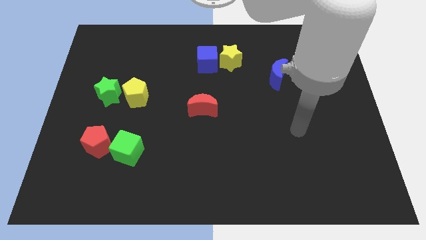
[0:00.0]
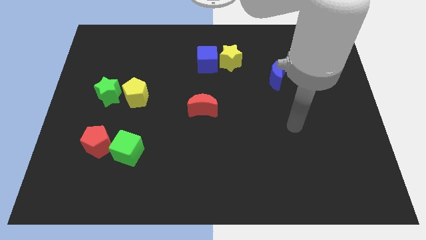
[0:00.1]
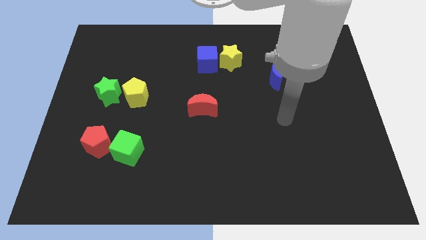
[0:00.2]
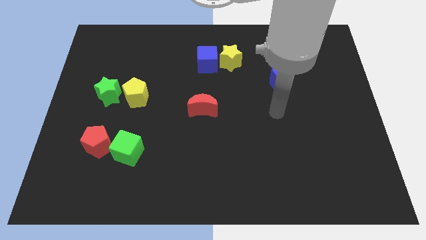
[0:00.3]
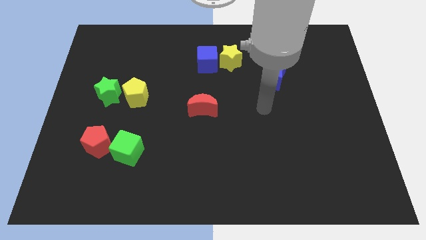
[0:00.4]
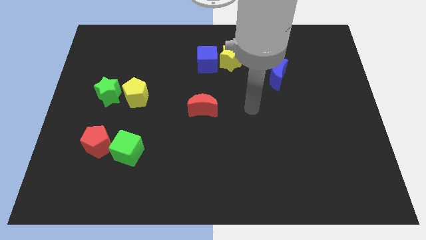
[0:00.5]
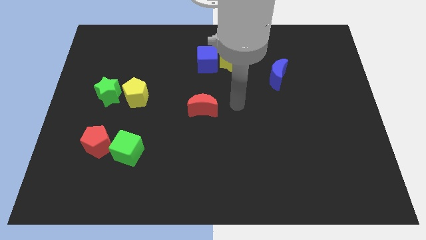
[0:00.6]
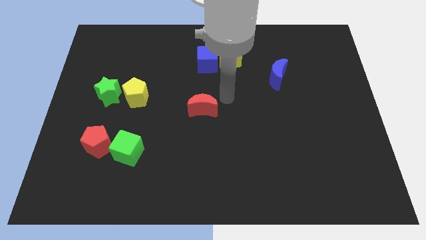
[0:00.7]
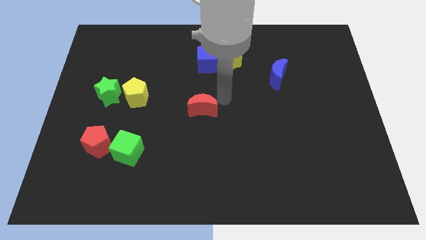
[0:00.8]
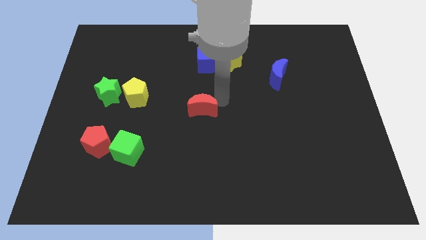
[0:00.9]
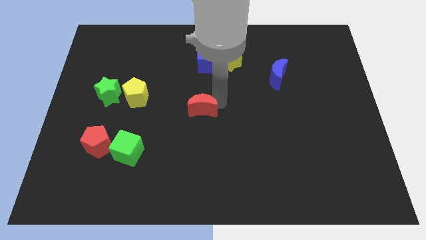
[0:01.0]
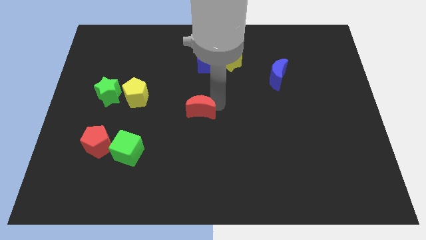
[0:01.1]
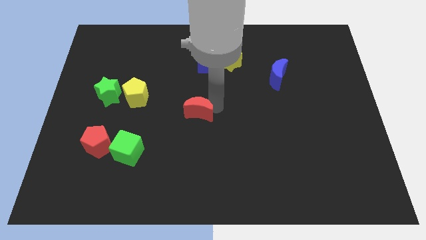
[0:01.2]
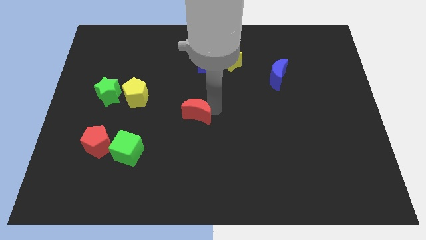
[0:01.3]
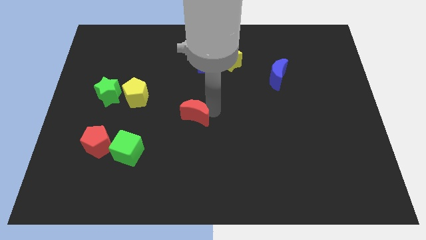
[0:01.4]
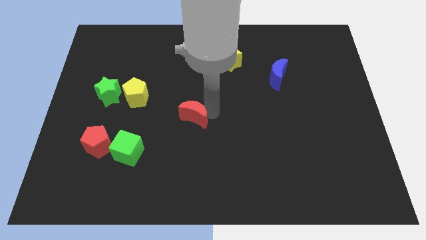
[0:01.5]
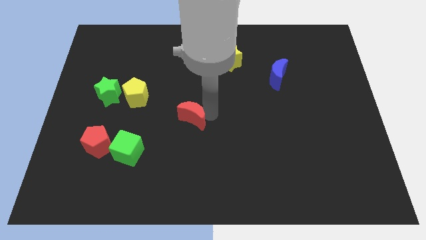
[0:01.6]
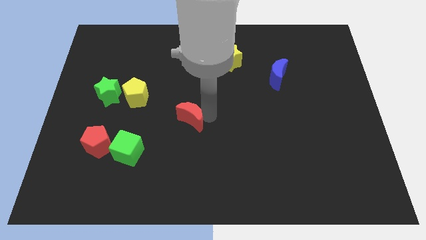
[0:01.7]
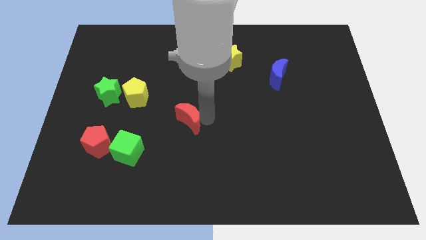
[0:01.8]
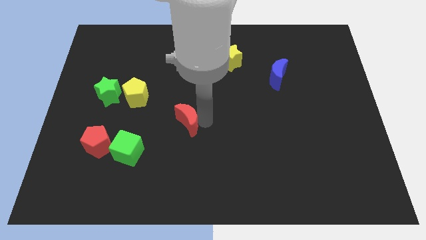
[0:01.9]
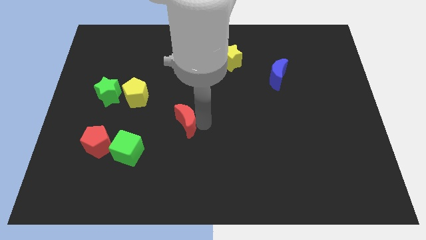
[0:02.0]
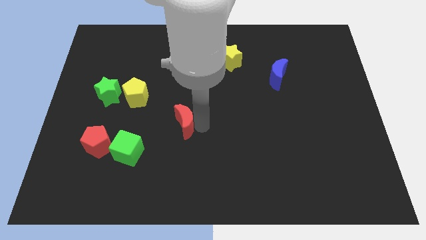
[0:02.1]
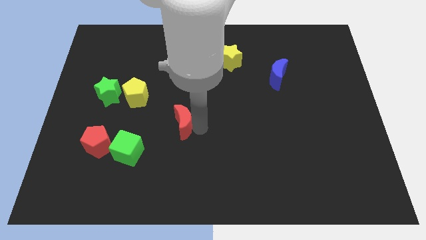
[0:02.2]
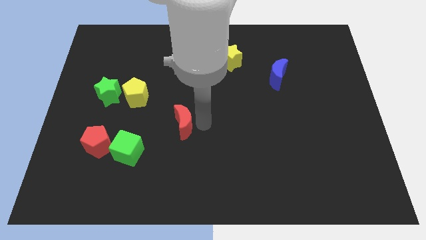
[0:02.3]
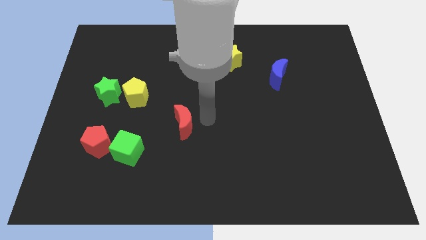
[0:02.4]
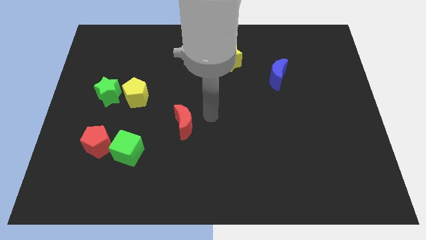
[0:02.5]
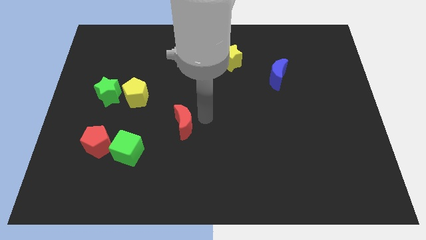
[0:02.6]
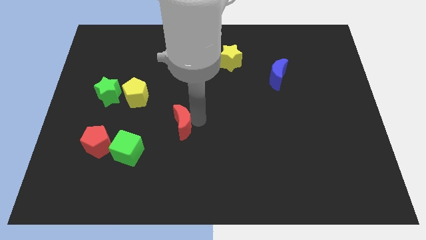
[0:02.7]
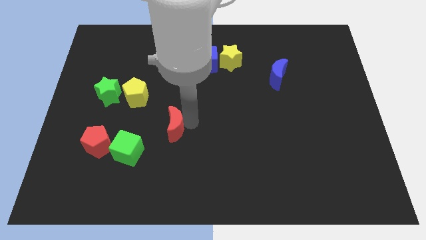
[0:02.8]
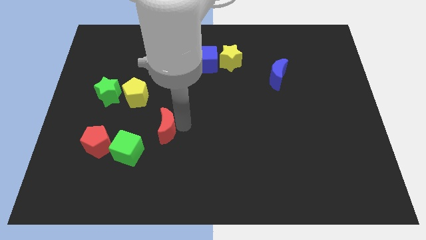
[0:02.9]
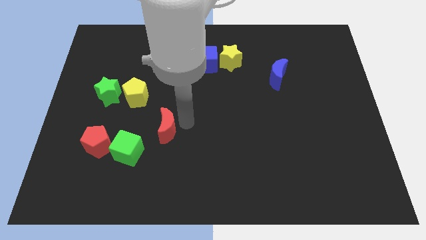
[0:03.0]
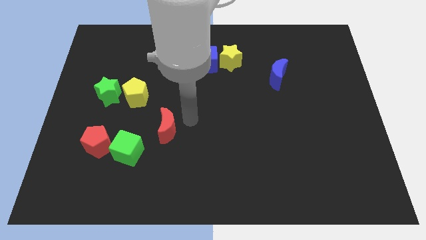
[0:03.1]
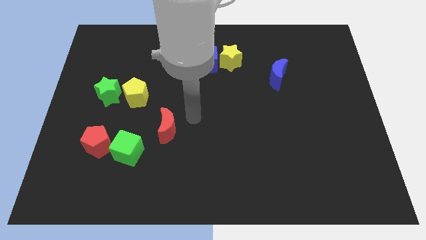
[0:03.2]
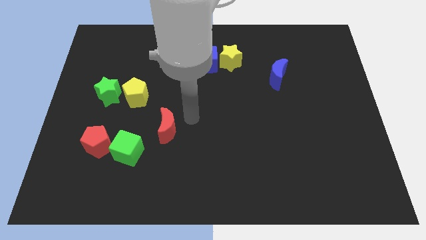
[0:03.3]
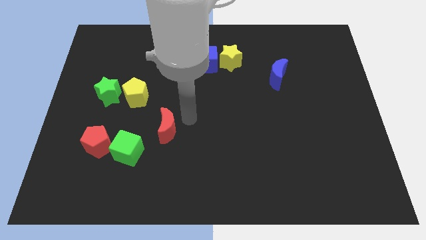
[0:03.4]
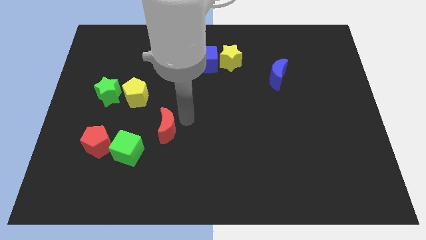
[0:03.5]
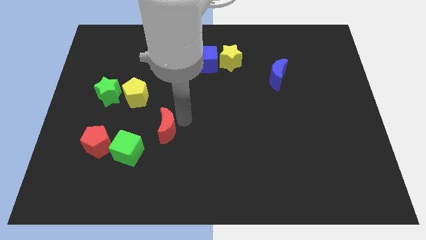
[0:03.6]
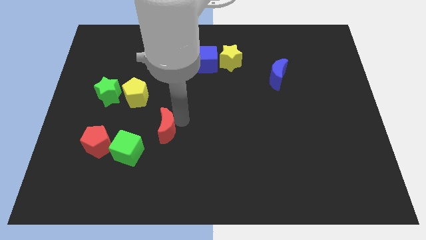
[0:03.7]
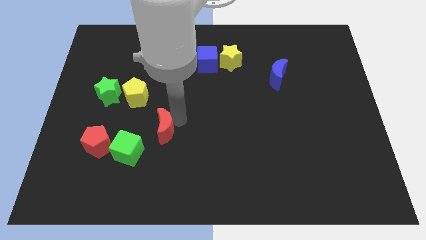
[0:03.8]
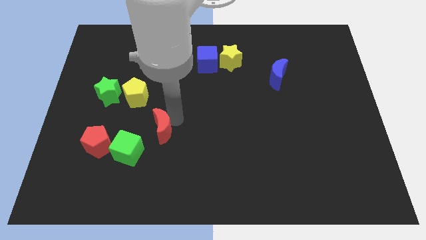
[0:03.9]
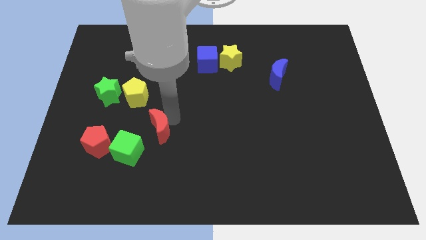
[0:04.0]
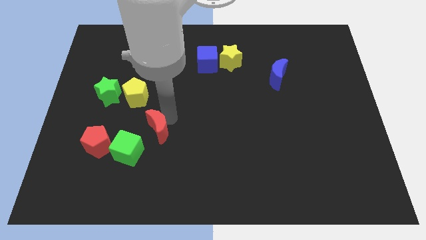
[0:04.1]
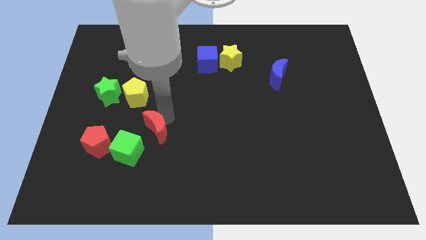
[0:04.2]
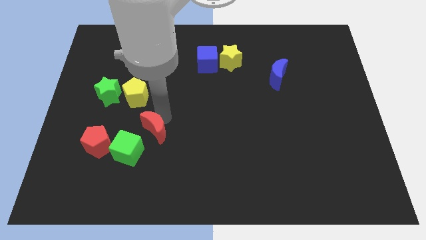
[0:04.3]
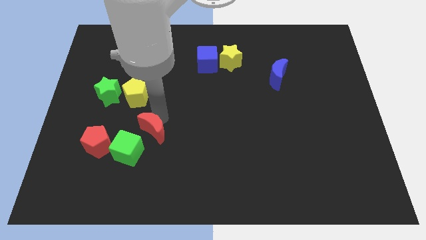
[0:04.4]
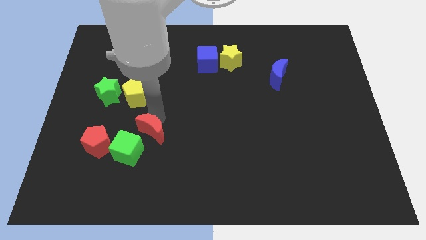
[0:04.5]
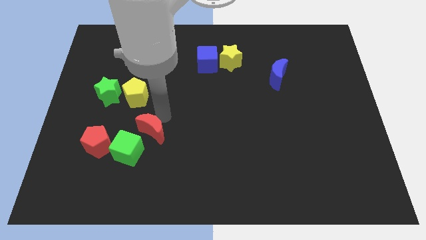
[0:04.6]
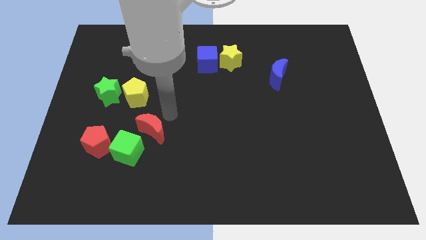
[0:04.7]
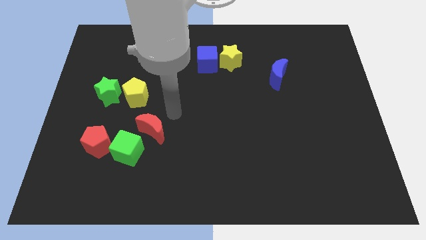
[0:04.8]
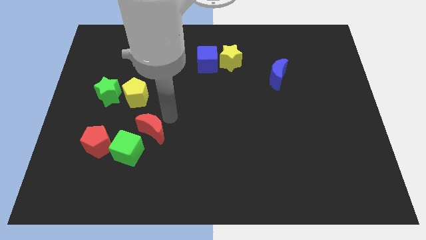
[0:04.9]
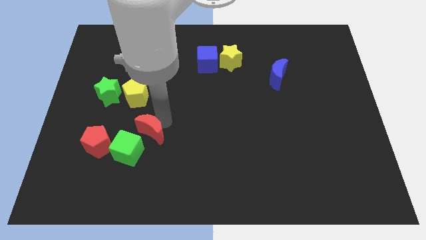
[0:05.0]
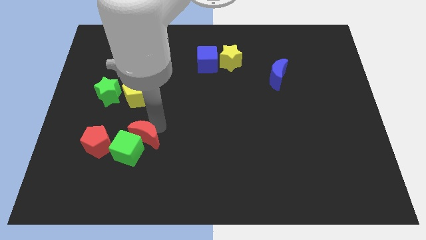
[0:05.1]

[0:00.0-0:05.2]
move the red moon close to the green cube
